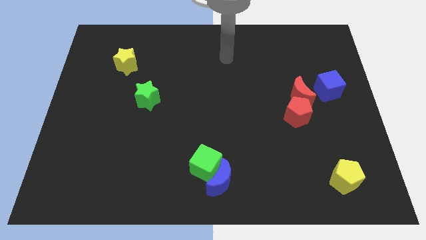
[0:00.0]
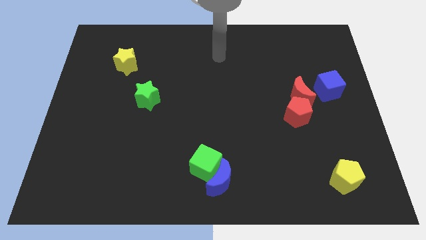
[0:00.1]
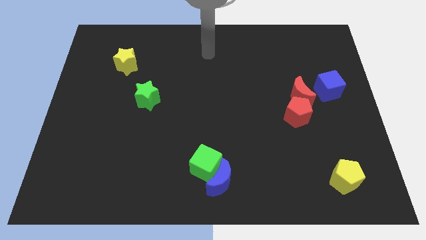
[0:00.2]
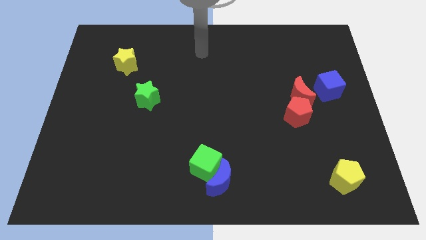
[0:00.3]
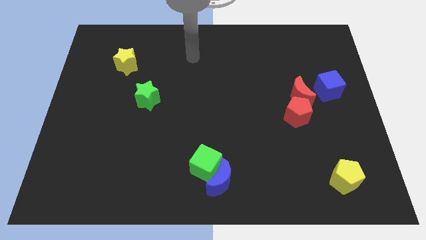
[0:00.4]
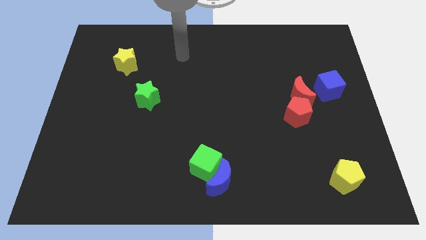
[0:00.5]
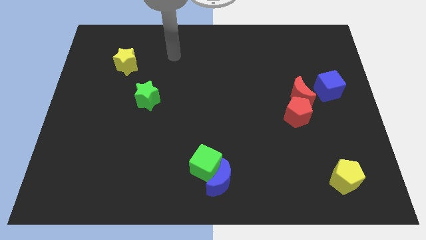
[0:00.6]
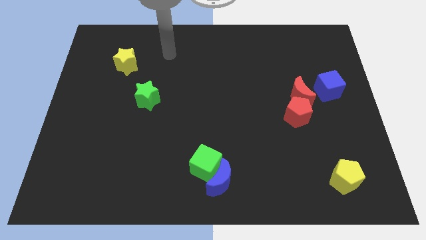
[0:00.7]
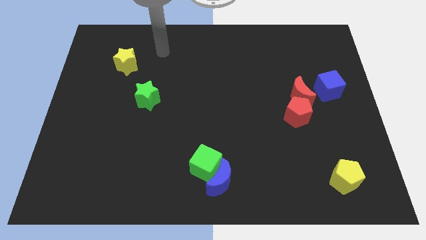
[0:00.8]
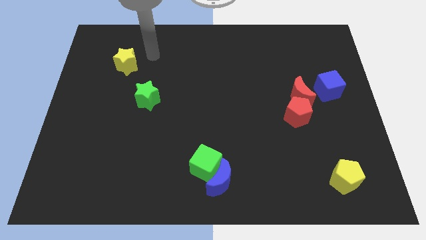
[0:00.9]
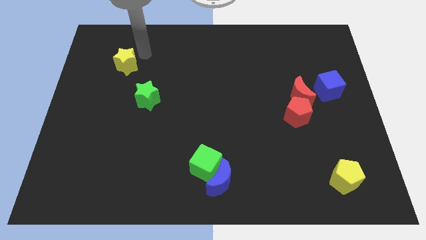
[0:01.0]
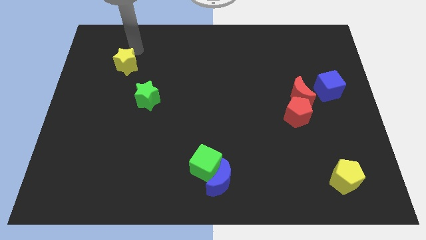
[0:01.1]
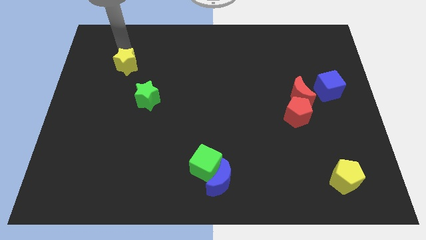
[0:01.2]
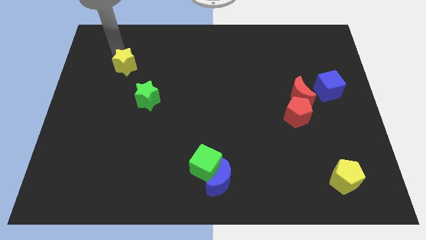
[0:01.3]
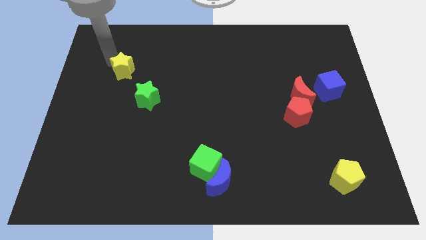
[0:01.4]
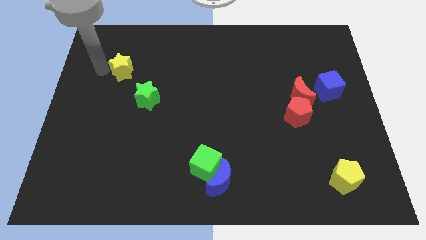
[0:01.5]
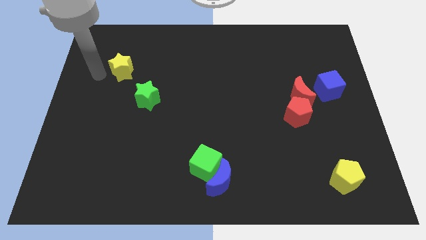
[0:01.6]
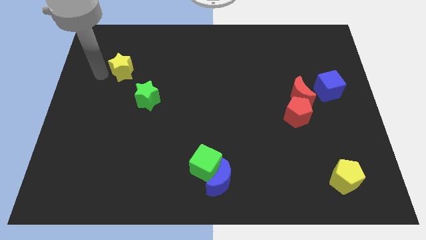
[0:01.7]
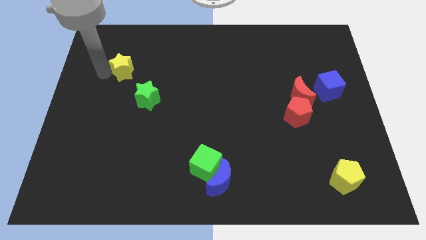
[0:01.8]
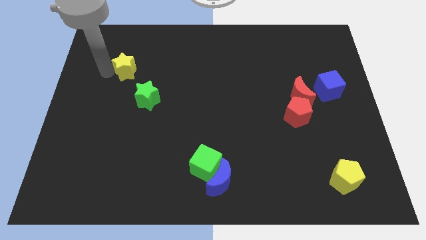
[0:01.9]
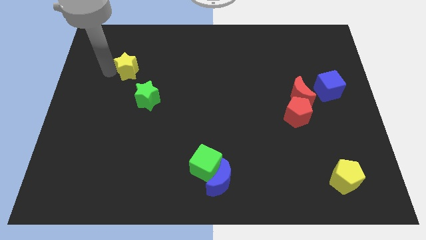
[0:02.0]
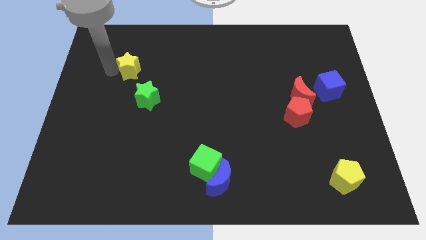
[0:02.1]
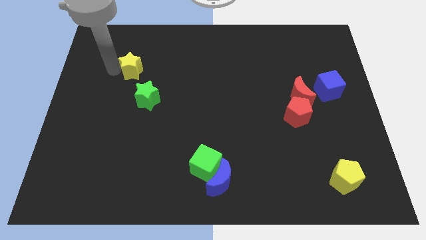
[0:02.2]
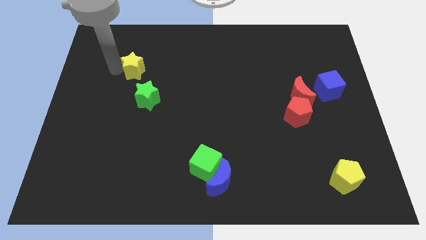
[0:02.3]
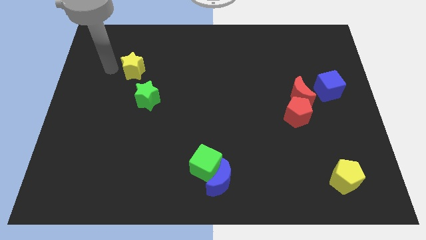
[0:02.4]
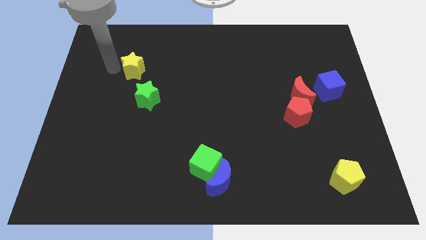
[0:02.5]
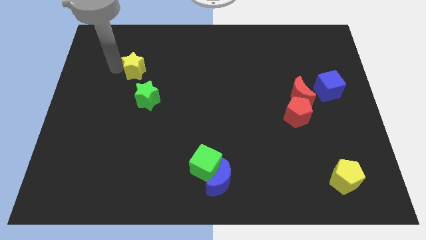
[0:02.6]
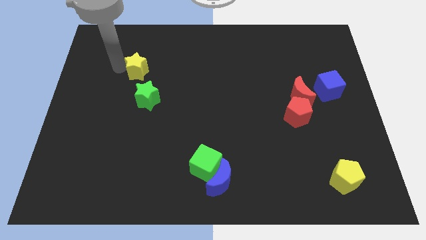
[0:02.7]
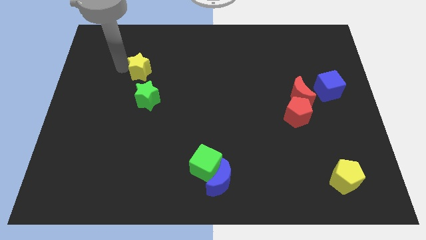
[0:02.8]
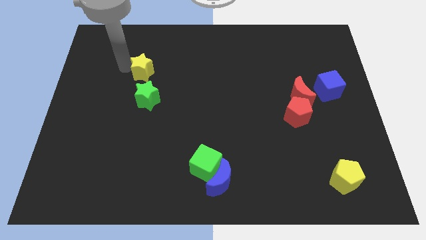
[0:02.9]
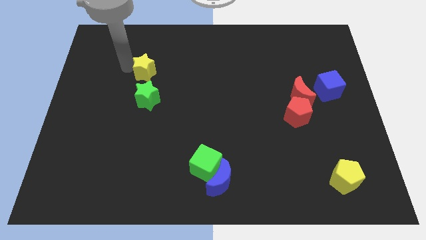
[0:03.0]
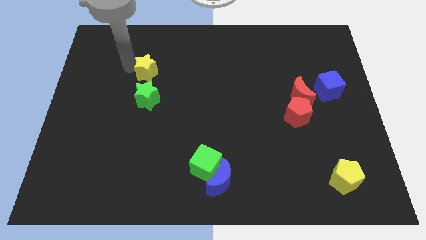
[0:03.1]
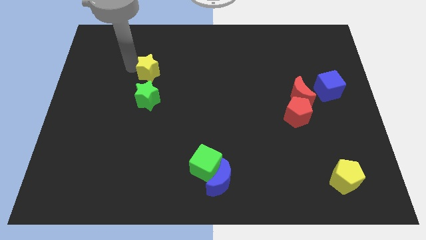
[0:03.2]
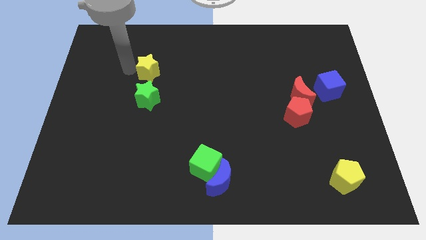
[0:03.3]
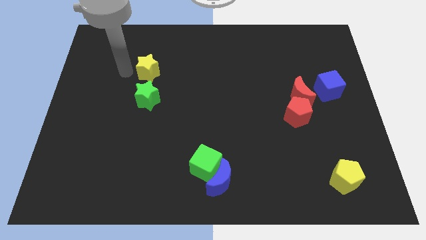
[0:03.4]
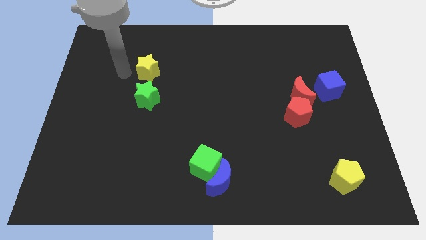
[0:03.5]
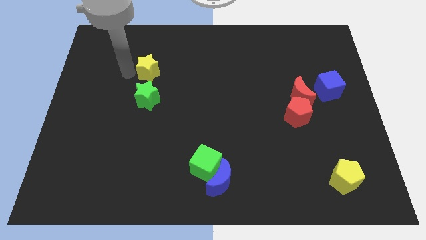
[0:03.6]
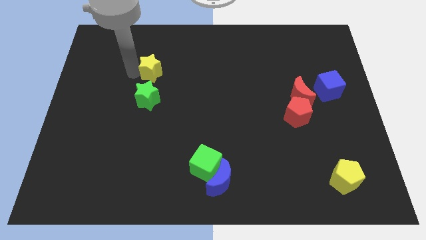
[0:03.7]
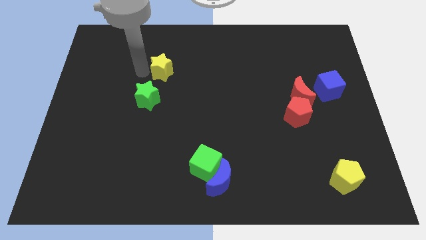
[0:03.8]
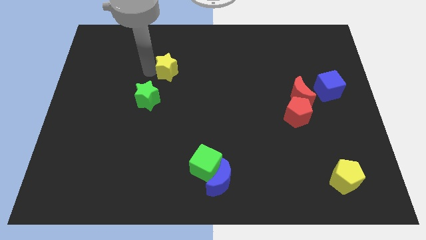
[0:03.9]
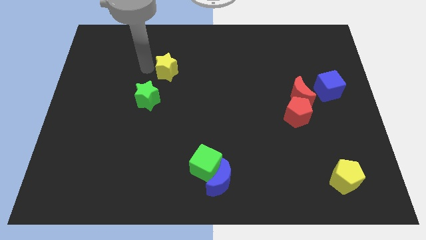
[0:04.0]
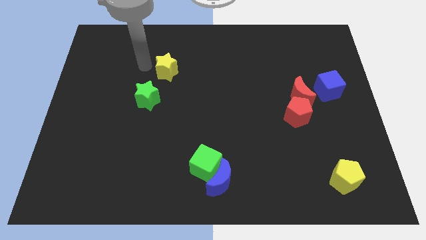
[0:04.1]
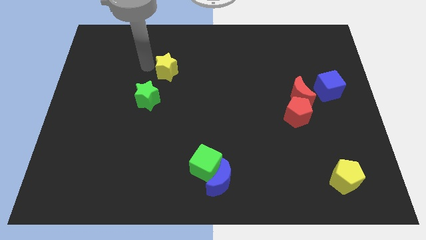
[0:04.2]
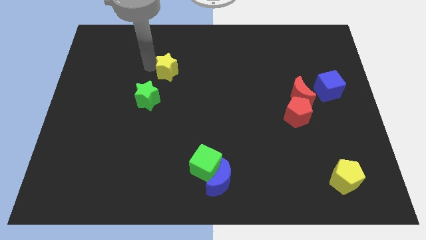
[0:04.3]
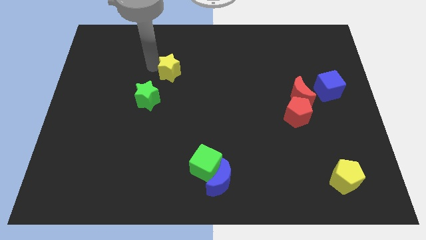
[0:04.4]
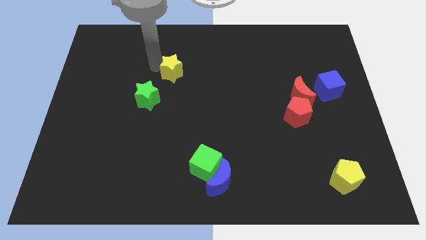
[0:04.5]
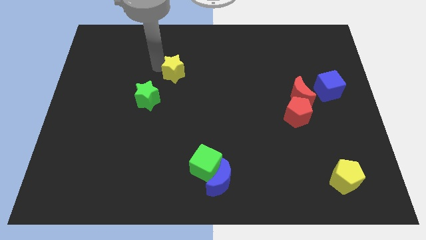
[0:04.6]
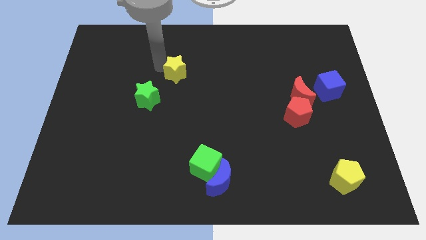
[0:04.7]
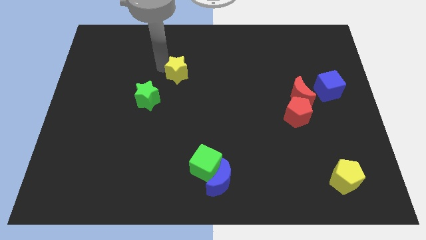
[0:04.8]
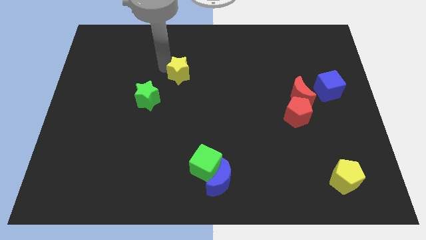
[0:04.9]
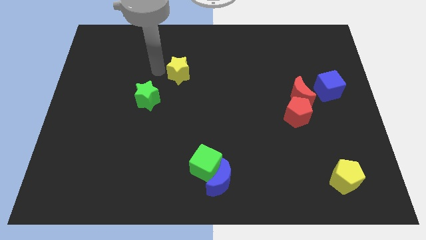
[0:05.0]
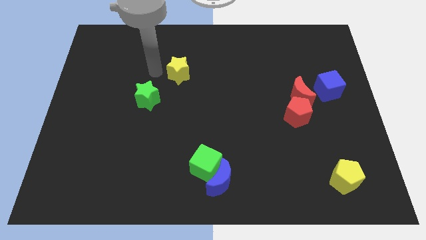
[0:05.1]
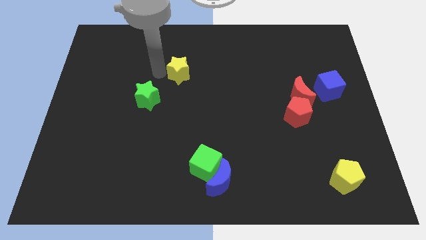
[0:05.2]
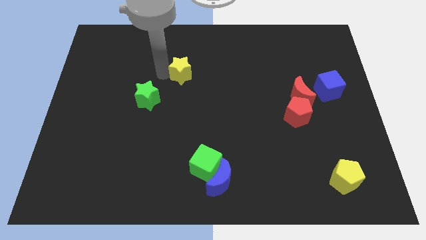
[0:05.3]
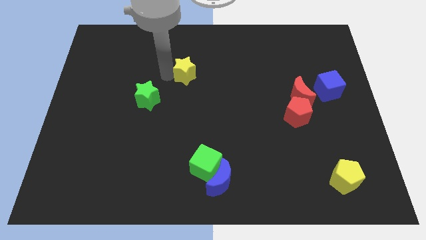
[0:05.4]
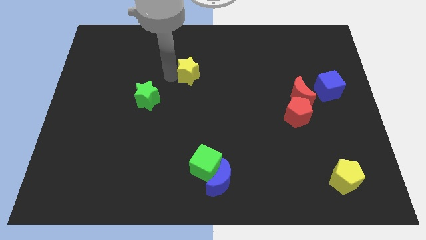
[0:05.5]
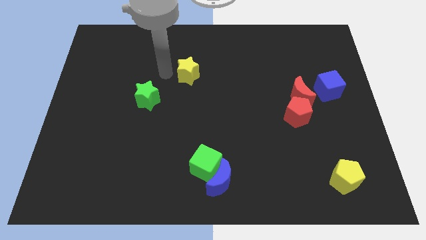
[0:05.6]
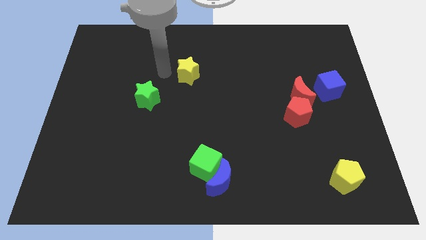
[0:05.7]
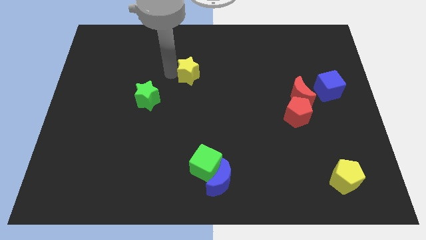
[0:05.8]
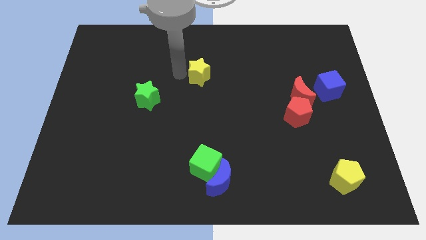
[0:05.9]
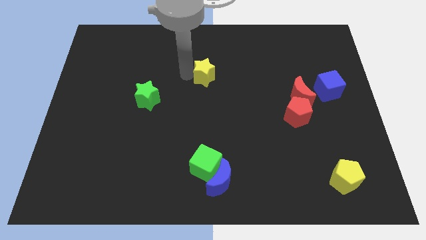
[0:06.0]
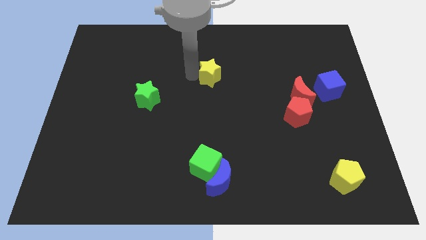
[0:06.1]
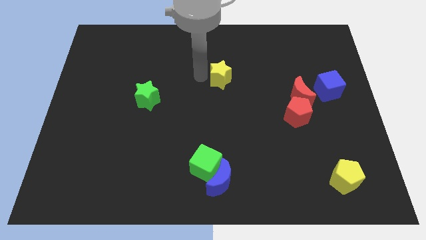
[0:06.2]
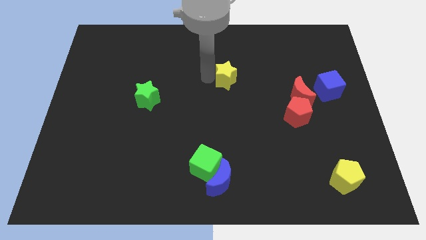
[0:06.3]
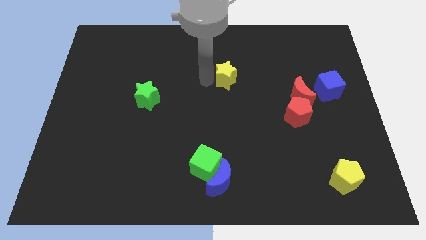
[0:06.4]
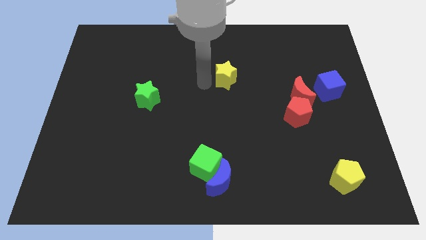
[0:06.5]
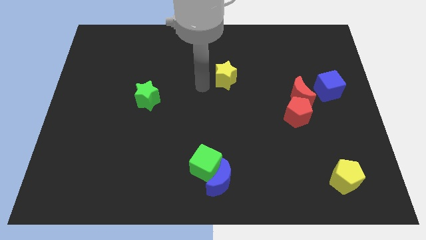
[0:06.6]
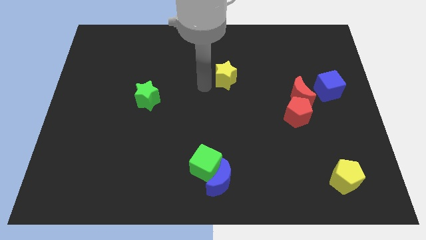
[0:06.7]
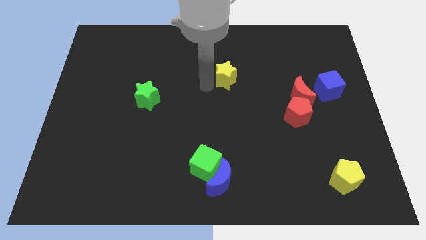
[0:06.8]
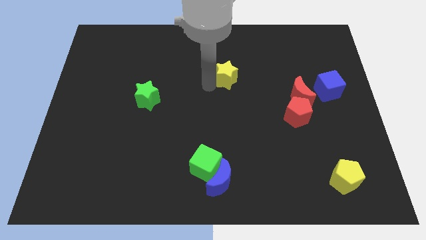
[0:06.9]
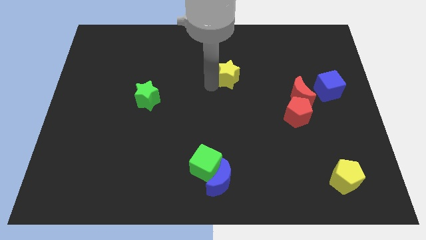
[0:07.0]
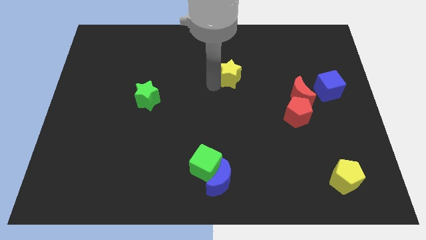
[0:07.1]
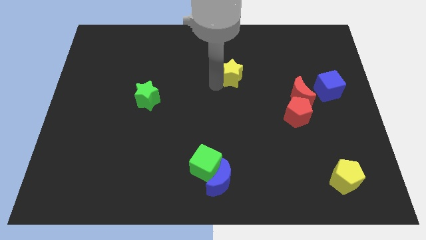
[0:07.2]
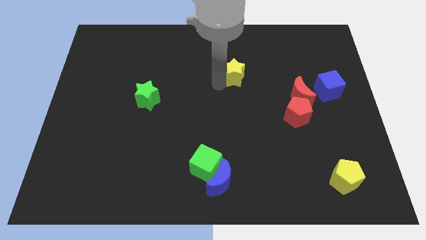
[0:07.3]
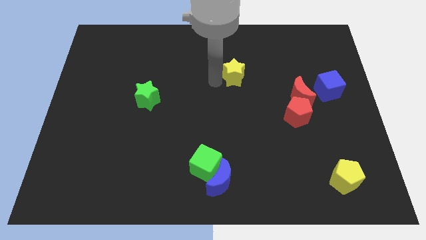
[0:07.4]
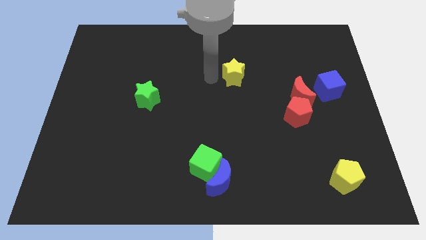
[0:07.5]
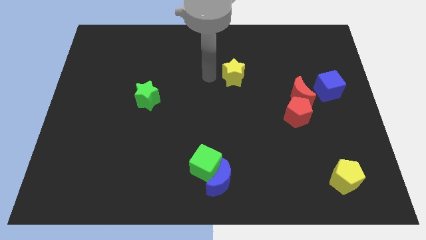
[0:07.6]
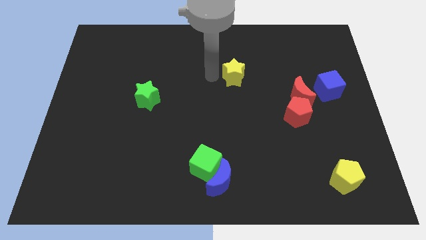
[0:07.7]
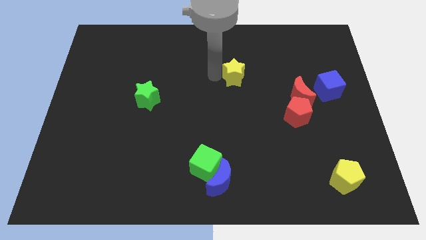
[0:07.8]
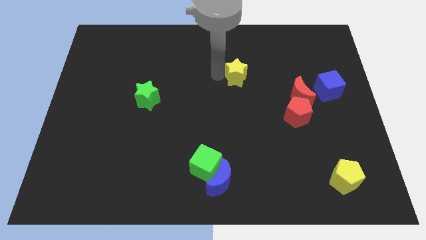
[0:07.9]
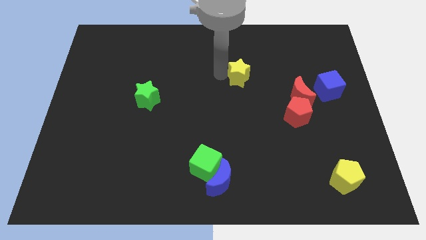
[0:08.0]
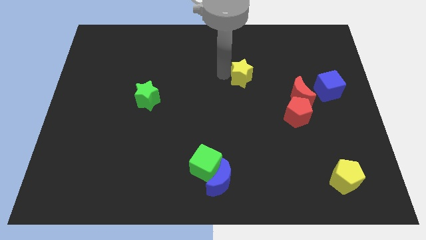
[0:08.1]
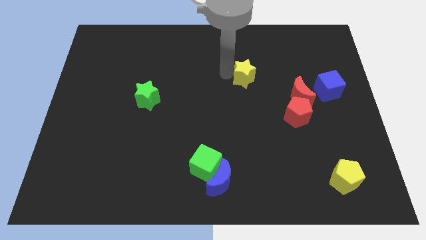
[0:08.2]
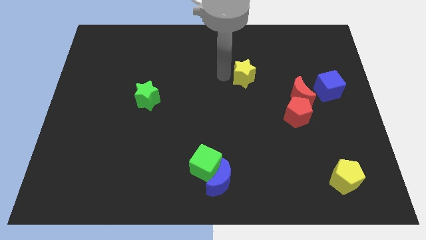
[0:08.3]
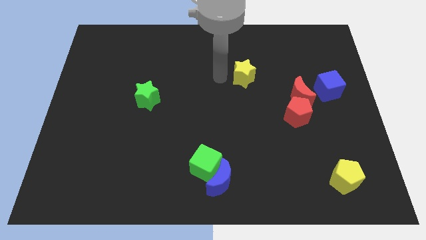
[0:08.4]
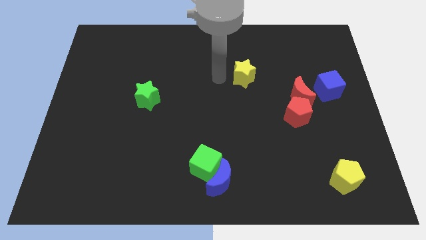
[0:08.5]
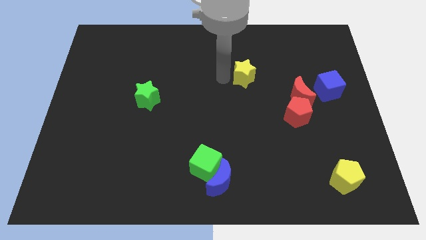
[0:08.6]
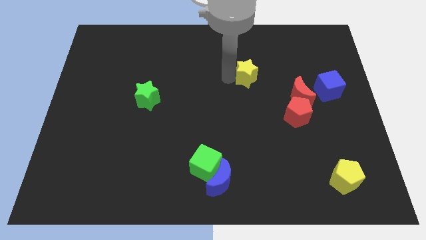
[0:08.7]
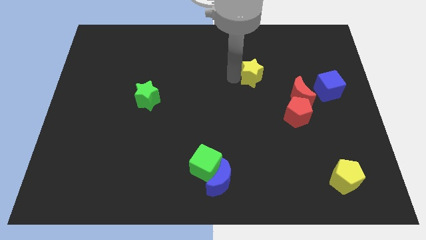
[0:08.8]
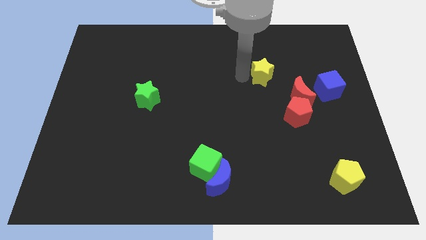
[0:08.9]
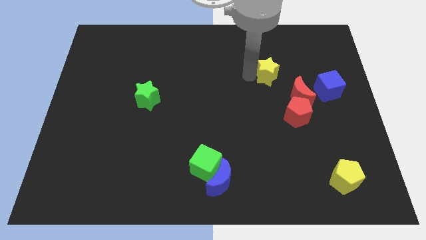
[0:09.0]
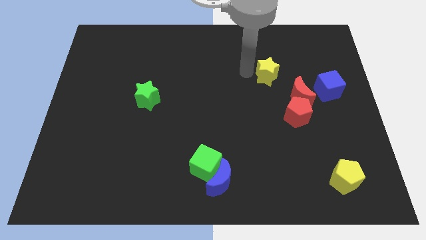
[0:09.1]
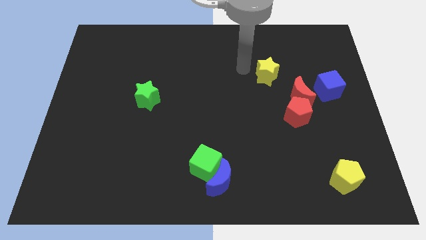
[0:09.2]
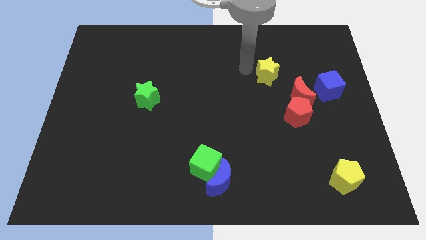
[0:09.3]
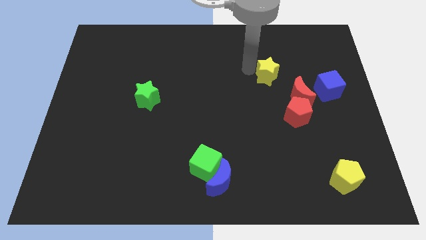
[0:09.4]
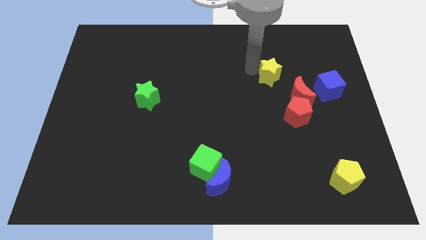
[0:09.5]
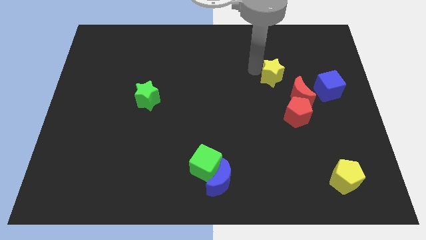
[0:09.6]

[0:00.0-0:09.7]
slide the yellow star to the top of the red pentagon
